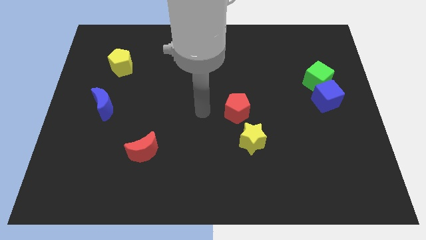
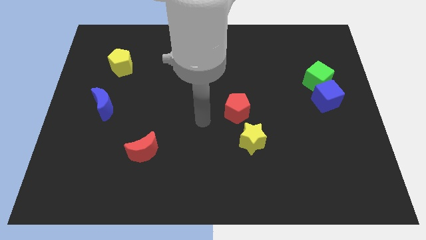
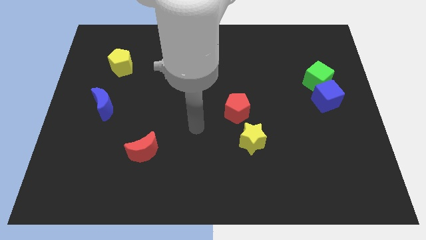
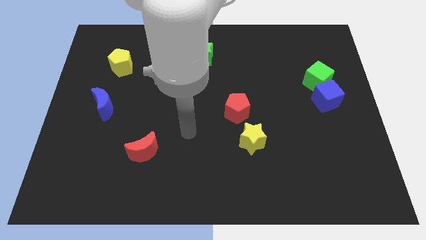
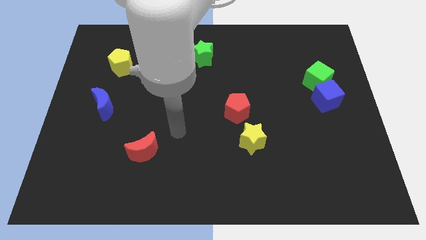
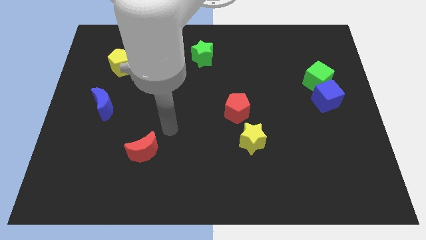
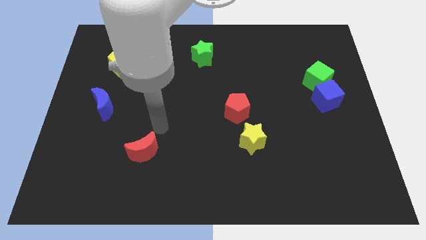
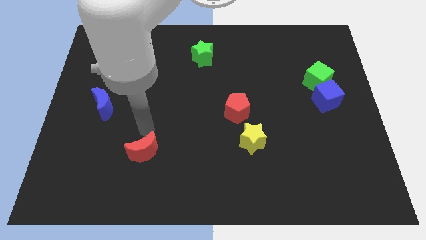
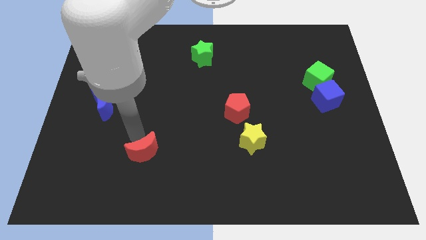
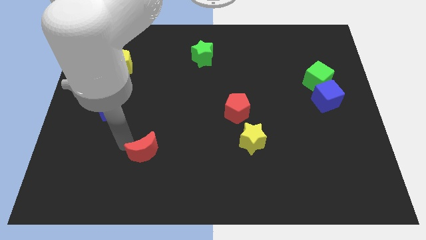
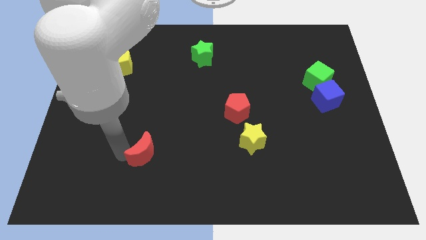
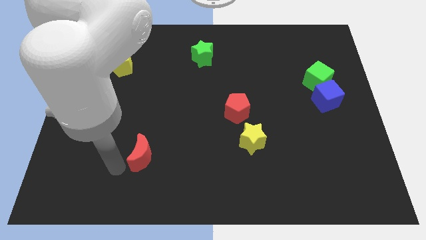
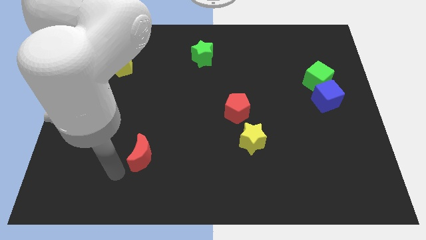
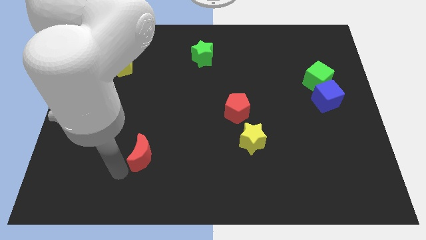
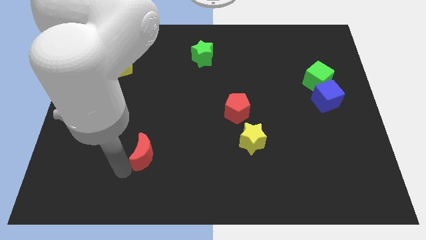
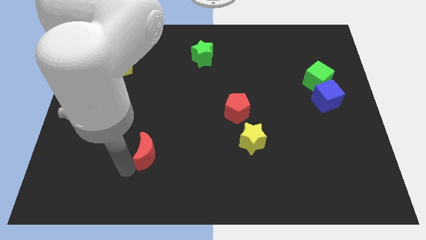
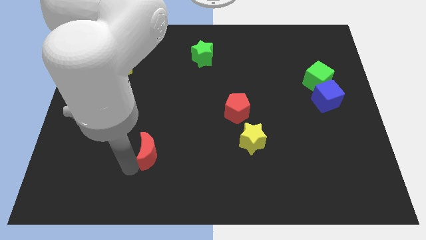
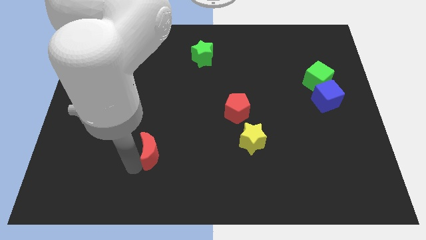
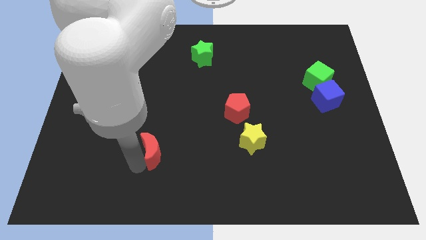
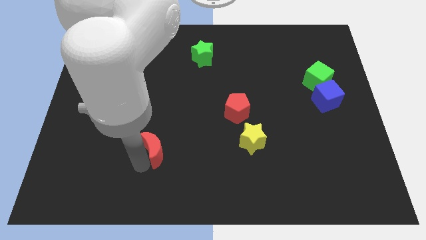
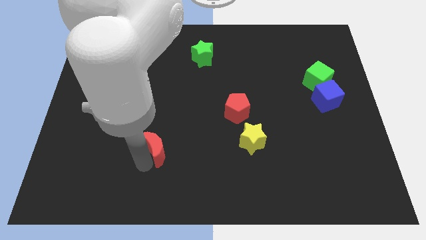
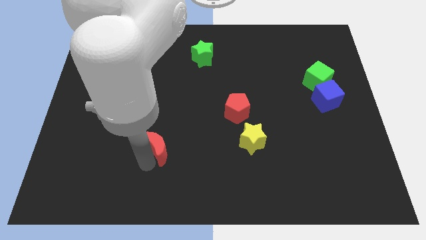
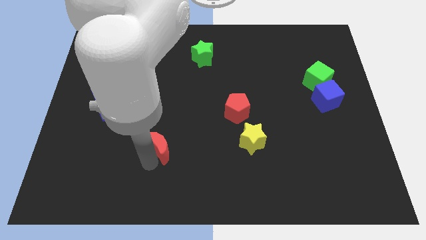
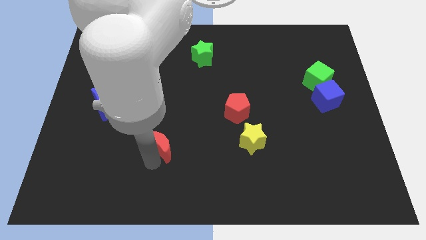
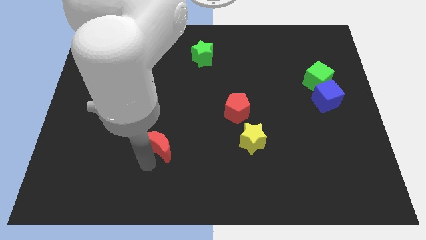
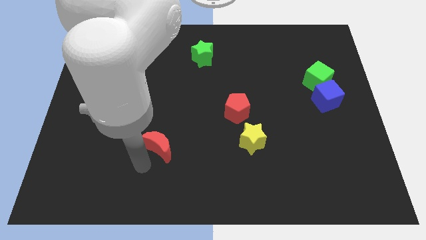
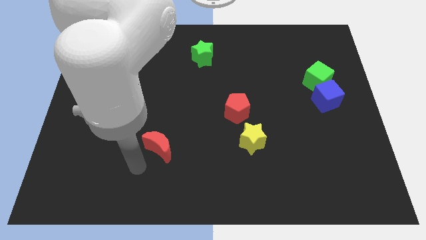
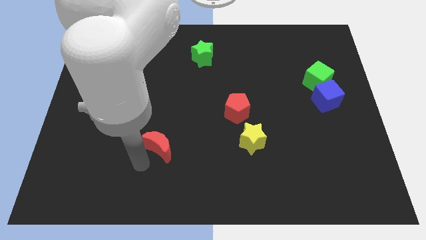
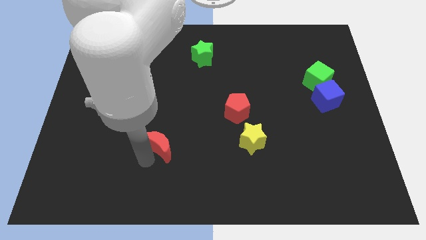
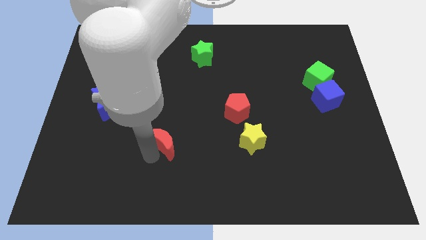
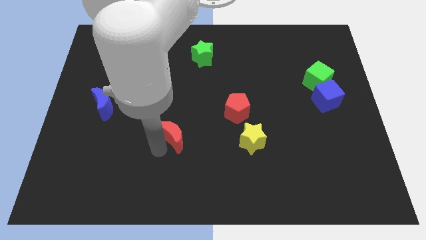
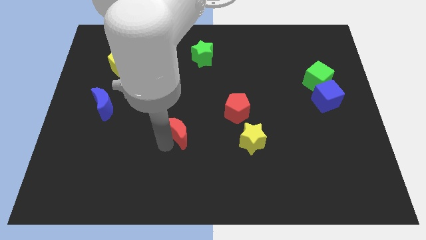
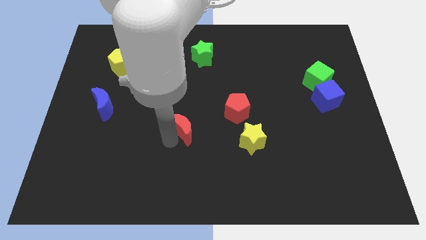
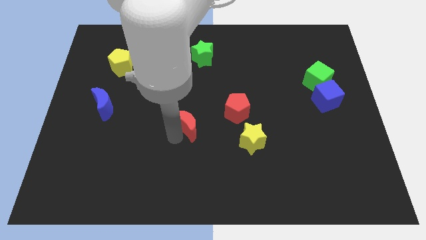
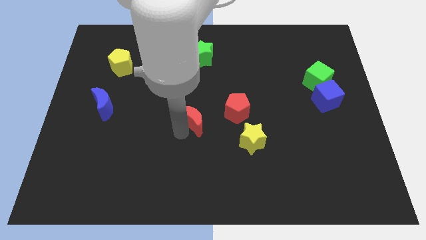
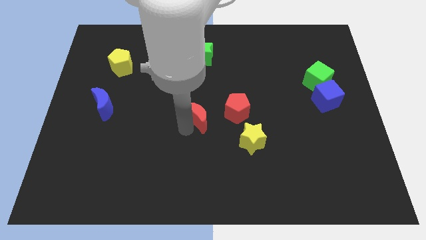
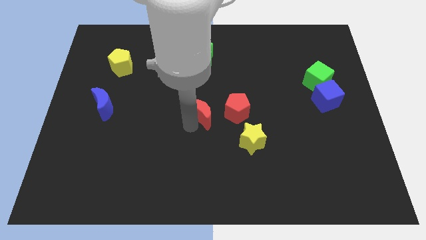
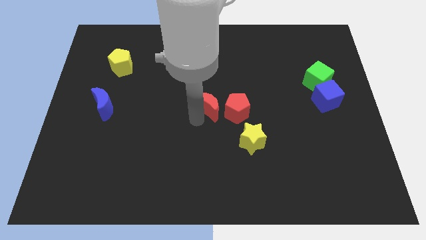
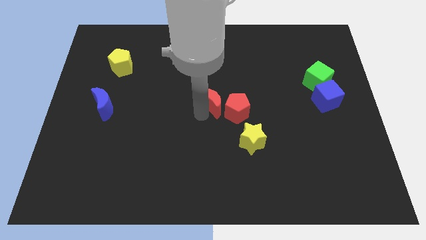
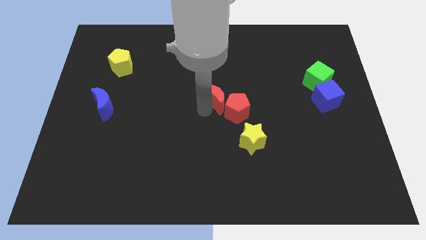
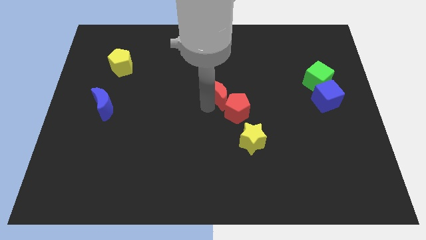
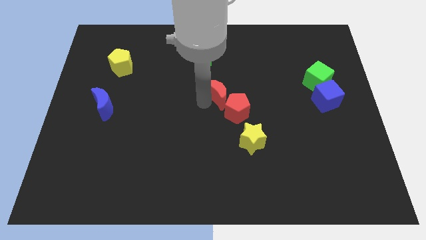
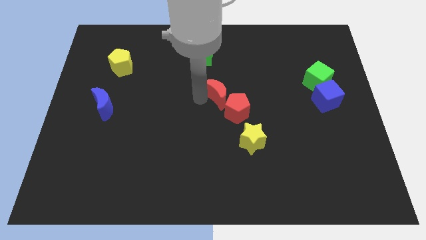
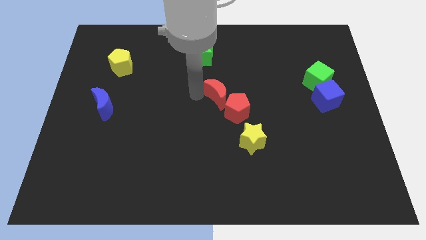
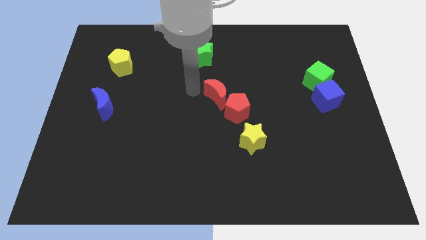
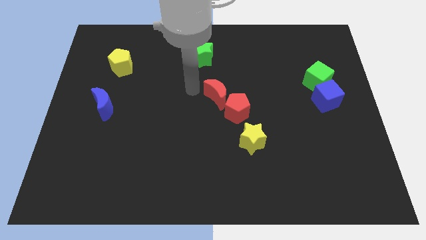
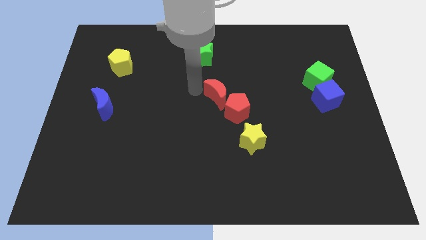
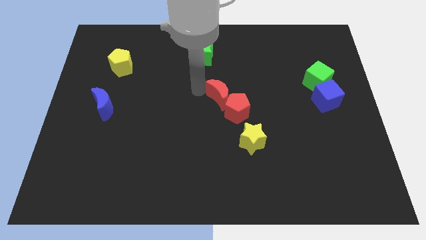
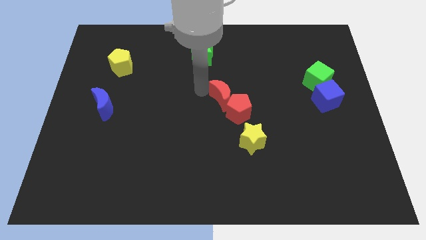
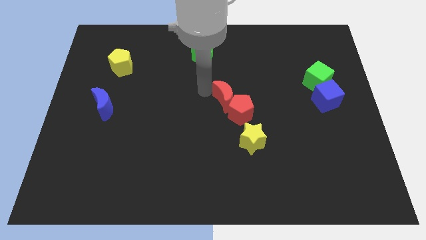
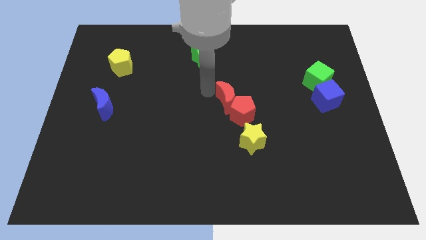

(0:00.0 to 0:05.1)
slide the red moon to the top of the yellow star

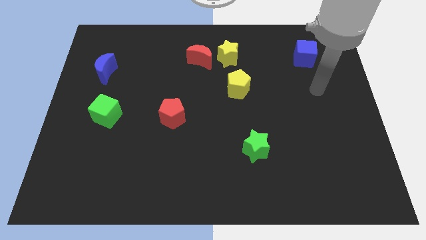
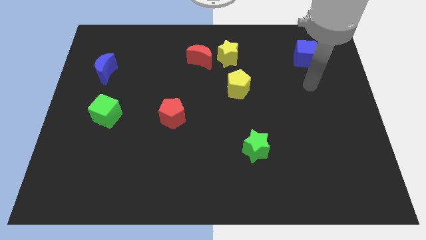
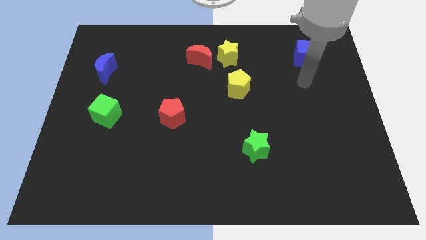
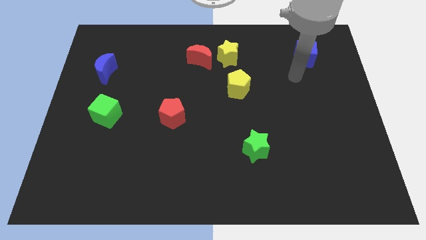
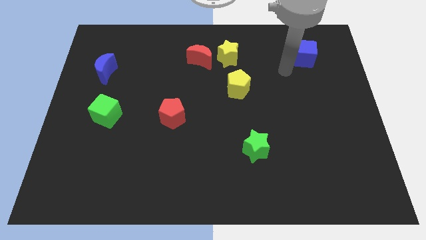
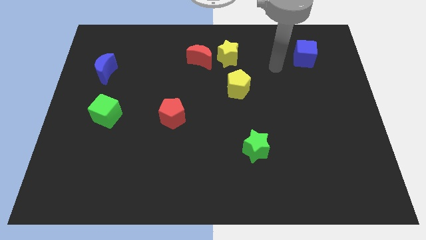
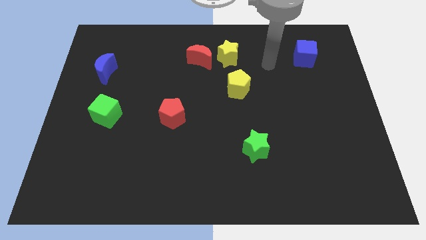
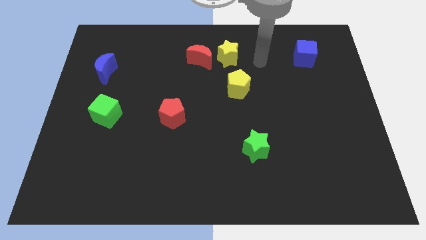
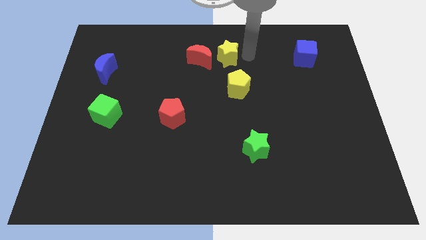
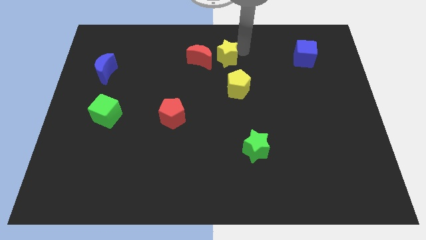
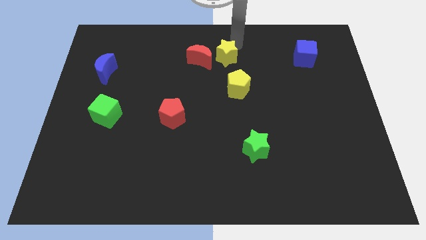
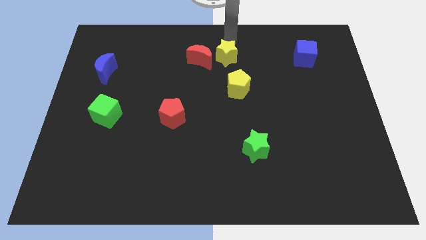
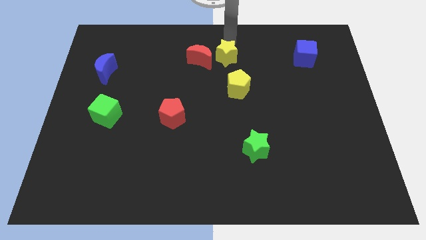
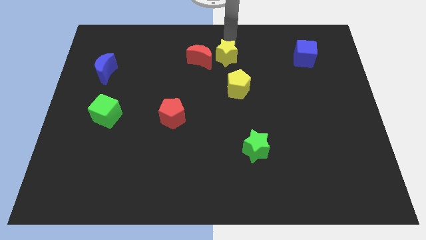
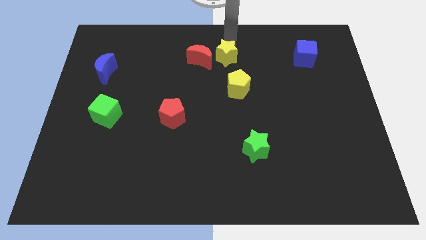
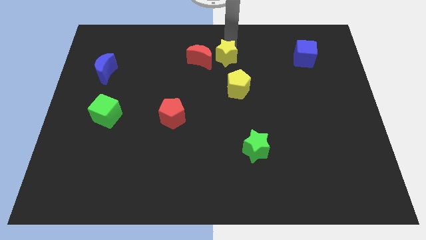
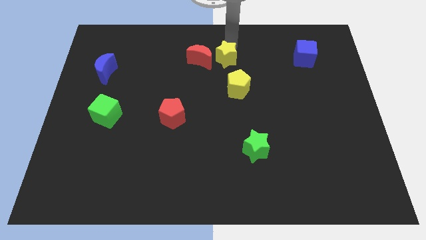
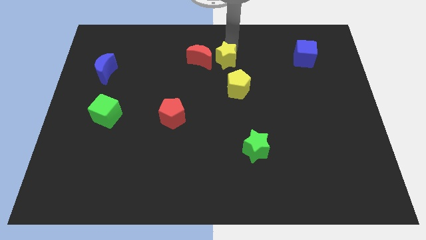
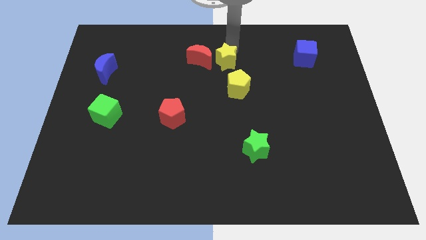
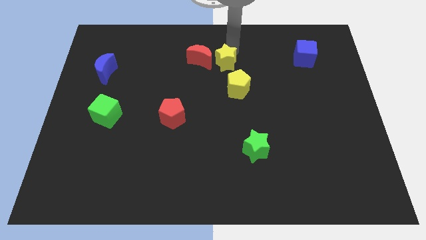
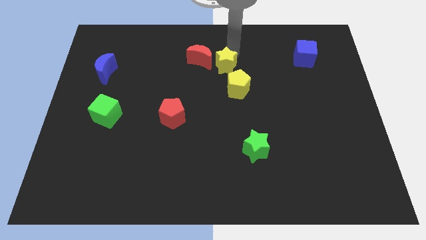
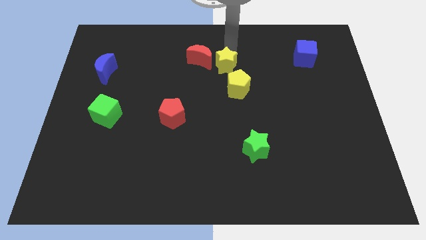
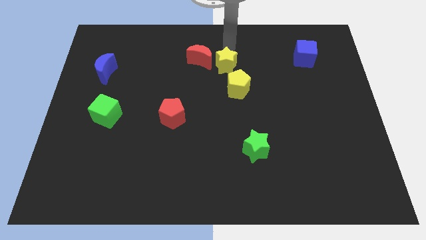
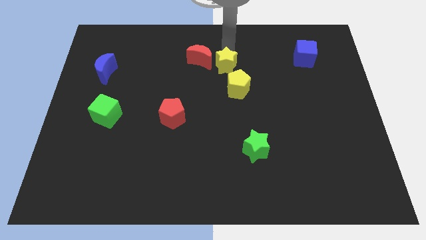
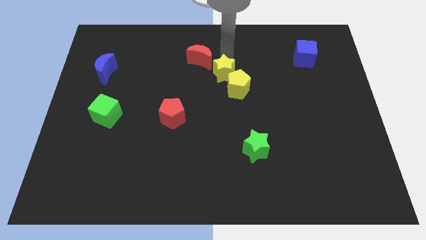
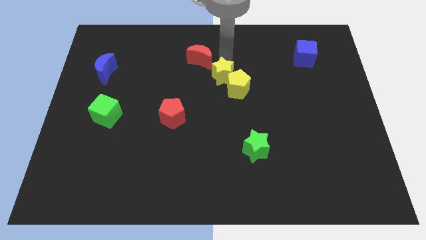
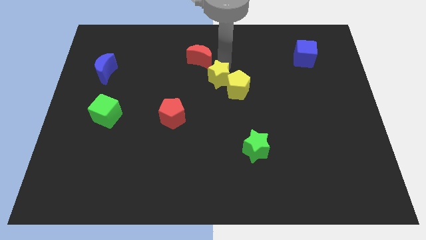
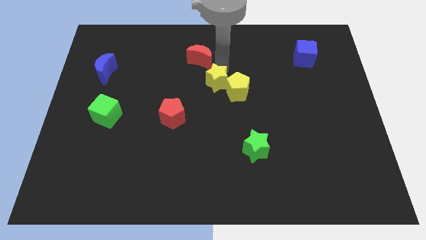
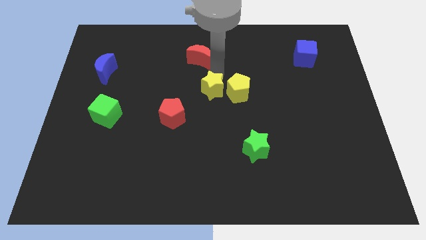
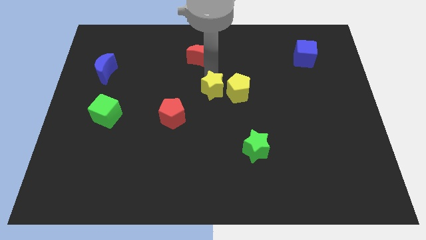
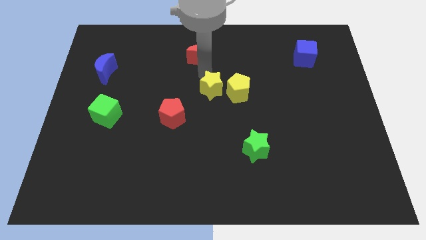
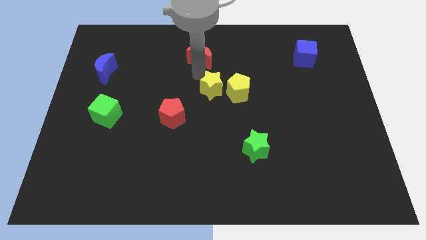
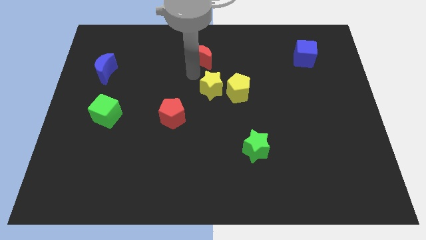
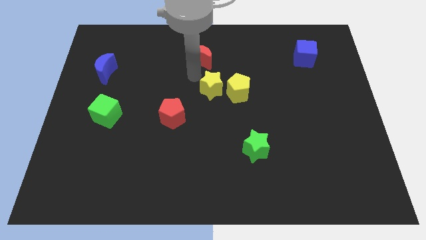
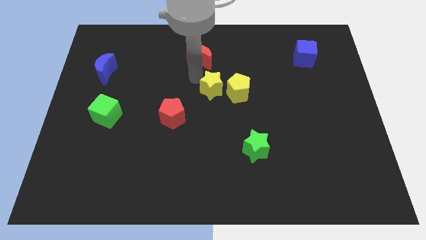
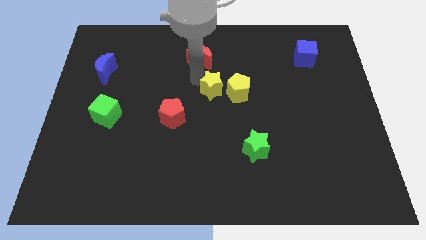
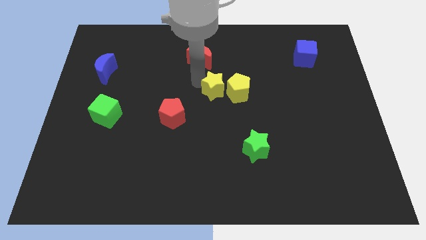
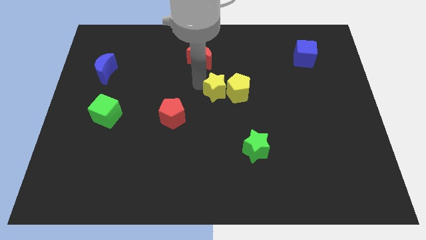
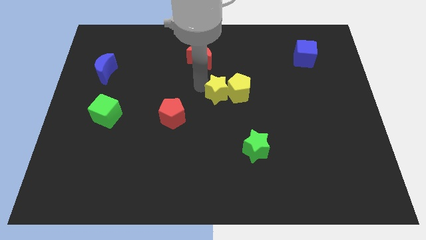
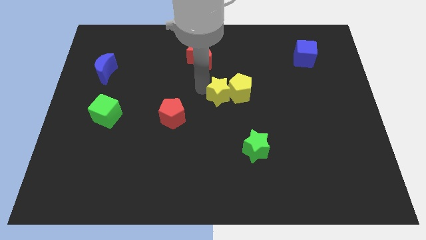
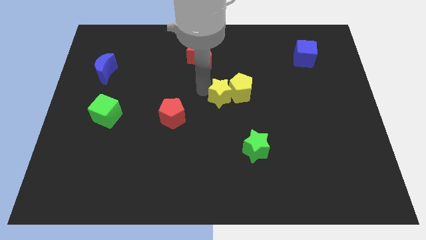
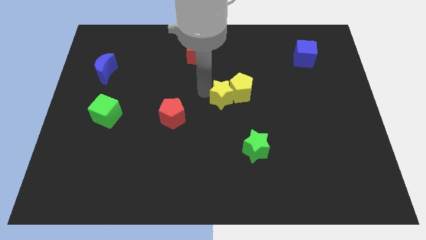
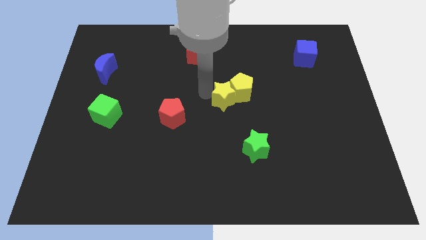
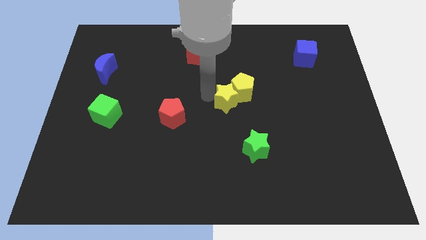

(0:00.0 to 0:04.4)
push the yellow star below the yellow pentagon
